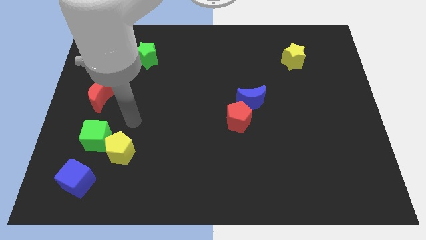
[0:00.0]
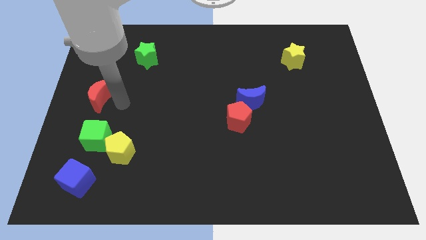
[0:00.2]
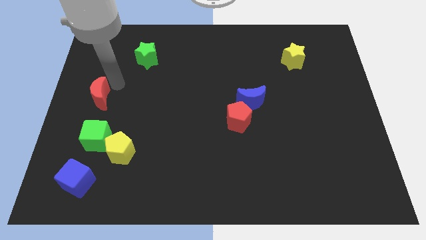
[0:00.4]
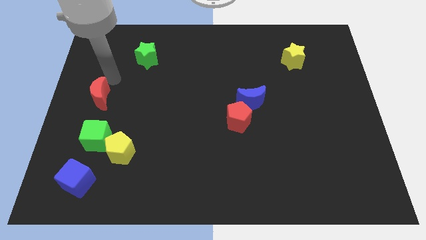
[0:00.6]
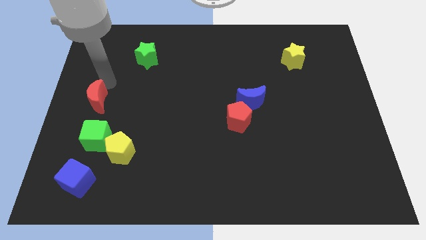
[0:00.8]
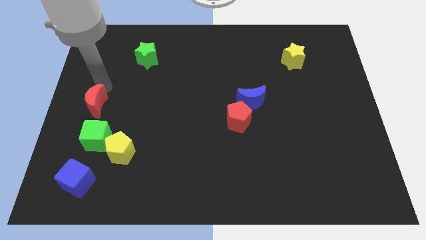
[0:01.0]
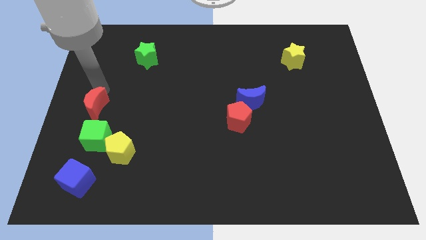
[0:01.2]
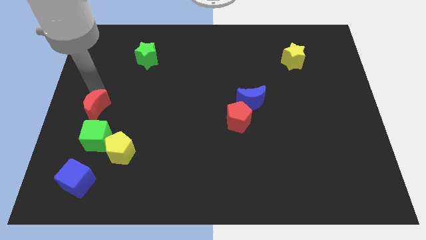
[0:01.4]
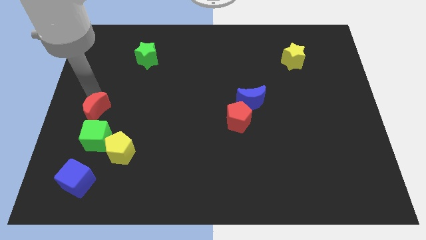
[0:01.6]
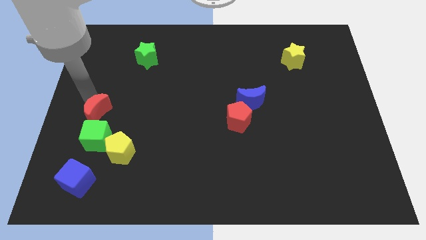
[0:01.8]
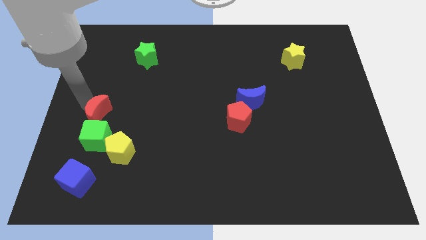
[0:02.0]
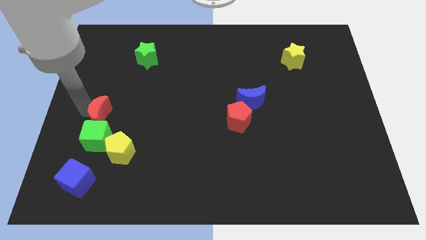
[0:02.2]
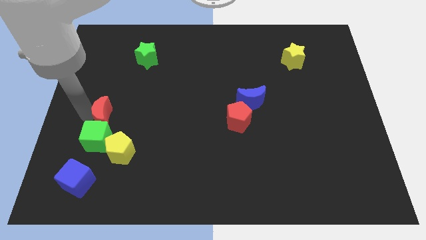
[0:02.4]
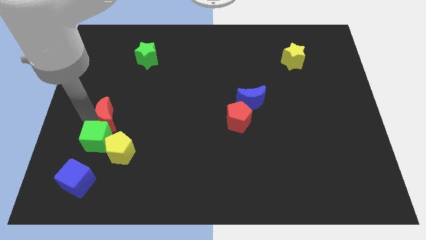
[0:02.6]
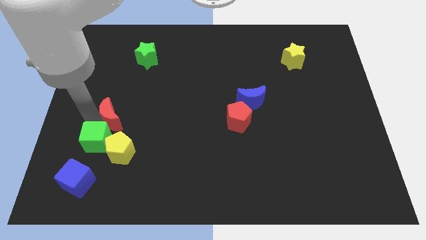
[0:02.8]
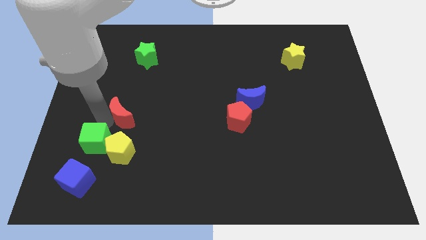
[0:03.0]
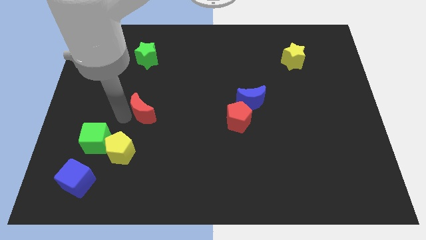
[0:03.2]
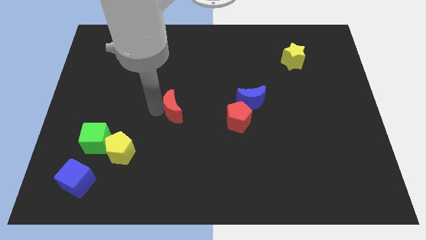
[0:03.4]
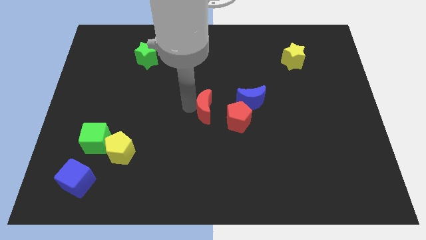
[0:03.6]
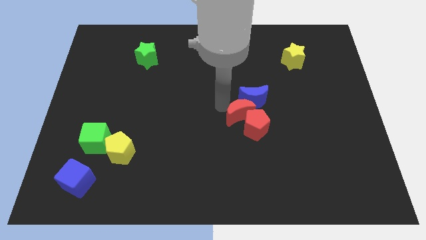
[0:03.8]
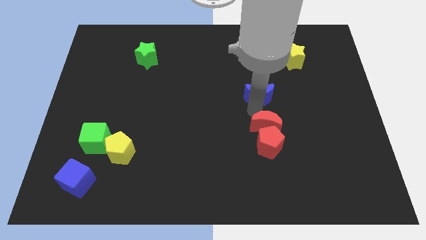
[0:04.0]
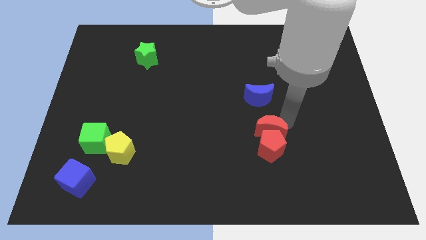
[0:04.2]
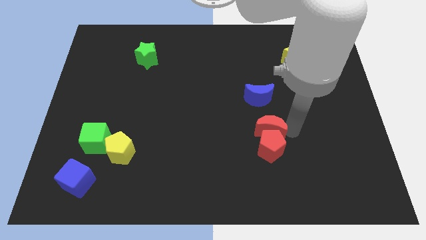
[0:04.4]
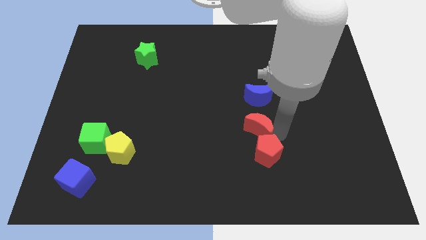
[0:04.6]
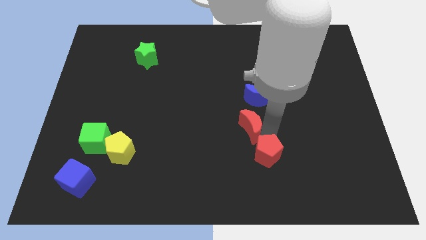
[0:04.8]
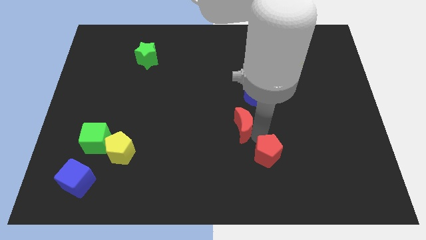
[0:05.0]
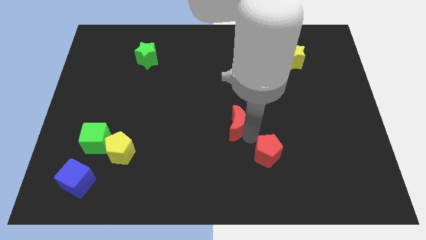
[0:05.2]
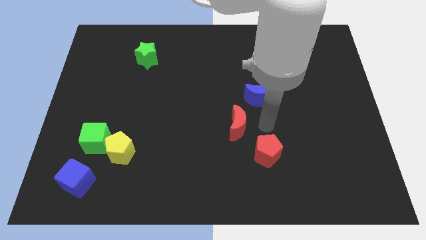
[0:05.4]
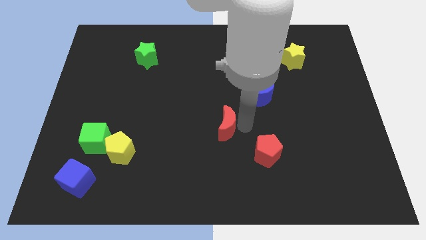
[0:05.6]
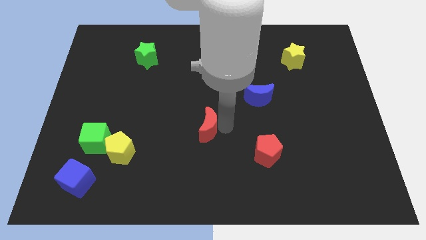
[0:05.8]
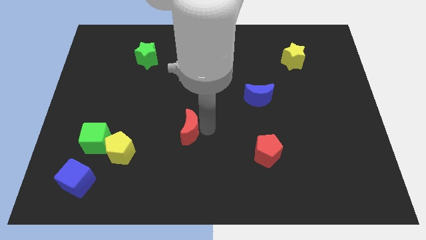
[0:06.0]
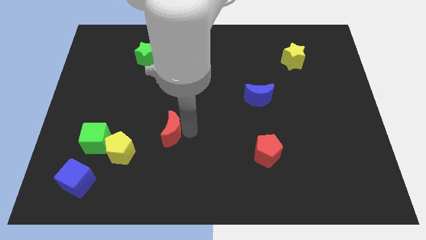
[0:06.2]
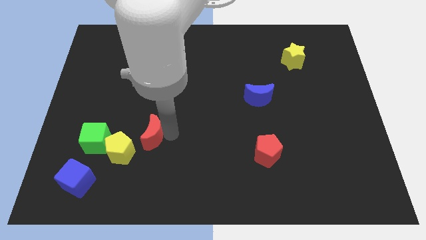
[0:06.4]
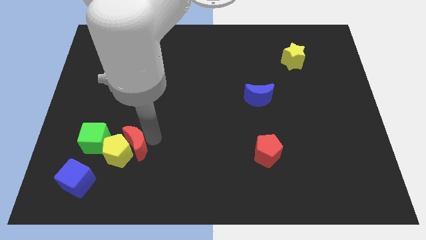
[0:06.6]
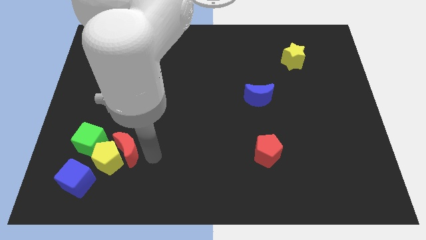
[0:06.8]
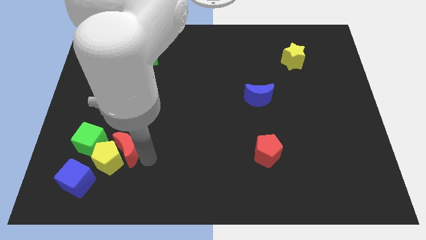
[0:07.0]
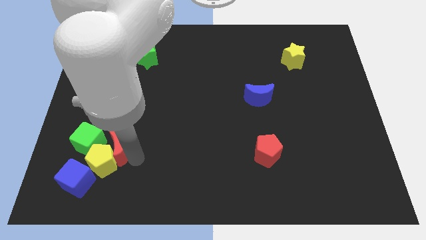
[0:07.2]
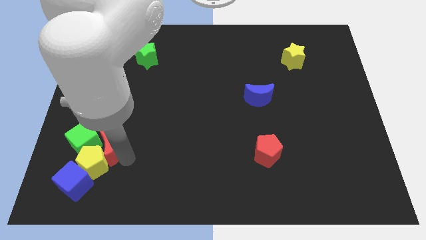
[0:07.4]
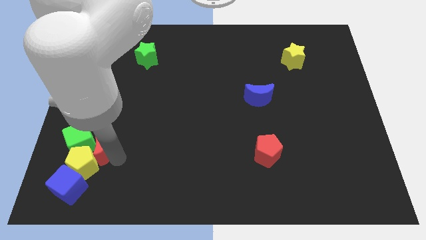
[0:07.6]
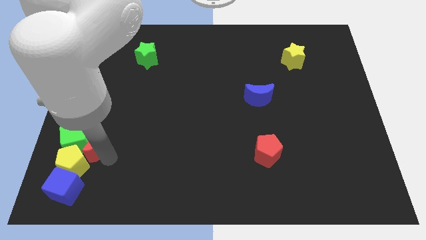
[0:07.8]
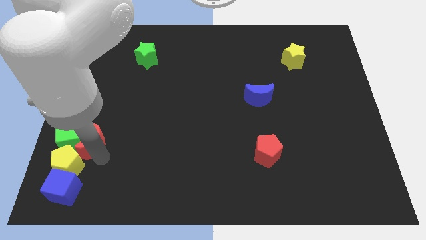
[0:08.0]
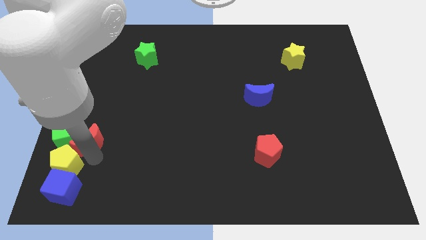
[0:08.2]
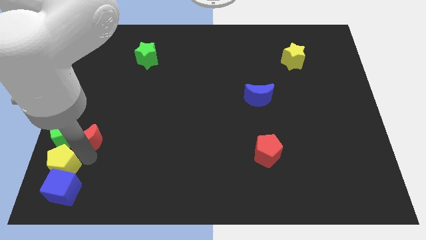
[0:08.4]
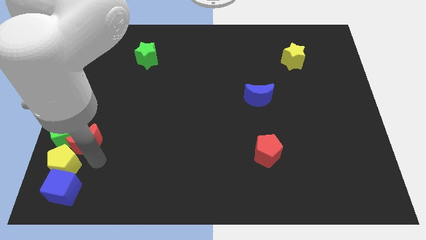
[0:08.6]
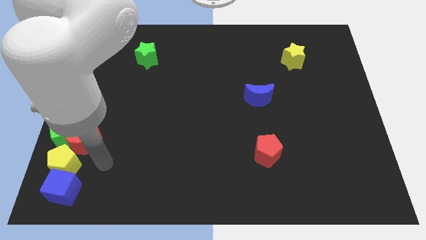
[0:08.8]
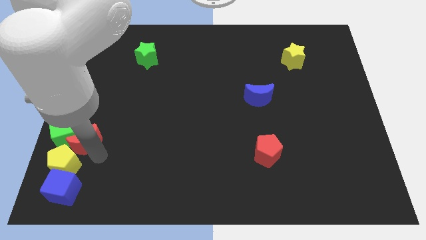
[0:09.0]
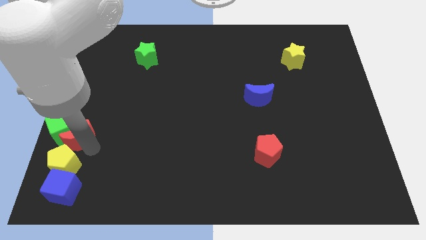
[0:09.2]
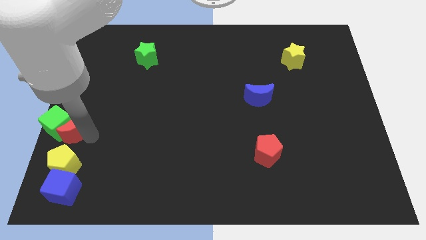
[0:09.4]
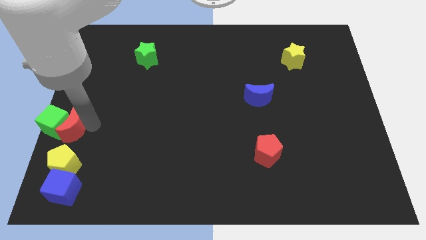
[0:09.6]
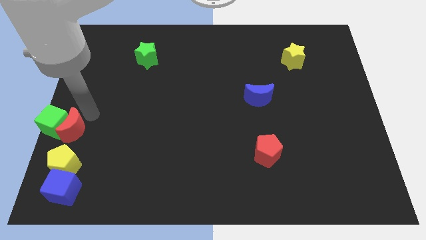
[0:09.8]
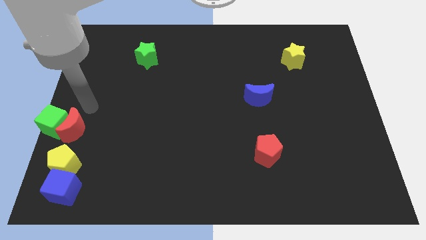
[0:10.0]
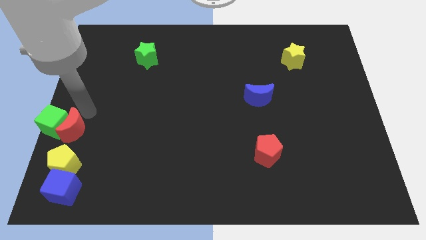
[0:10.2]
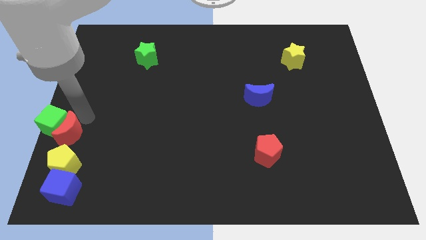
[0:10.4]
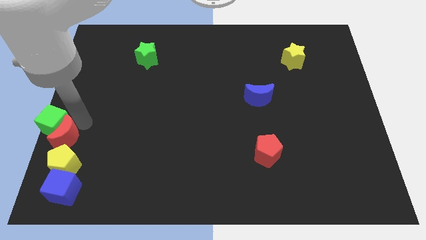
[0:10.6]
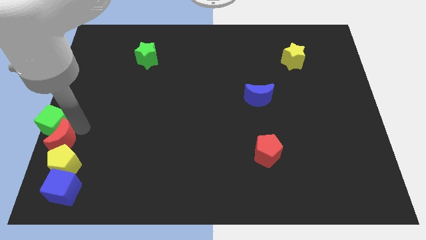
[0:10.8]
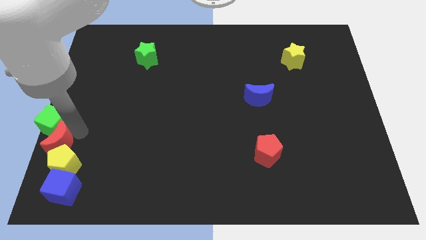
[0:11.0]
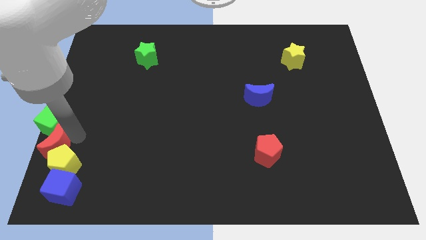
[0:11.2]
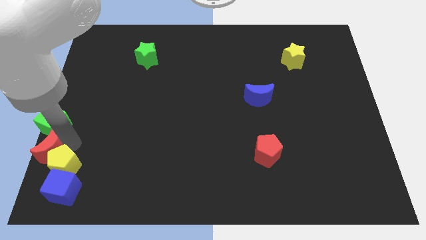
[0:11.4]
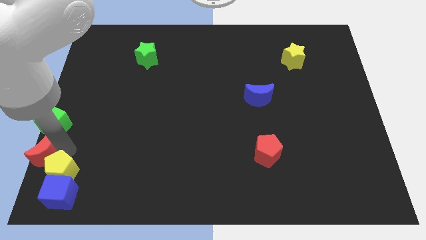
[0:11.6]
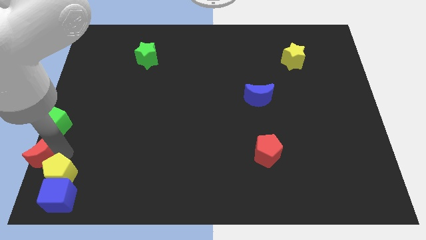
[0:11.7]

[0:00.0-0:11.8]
push the red moon to the bottom left corner
